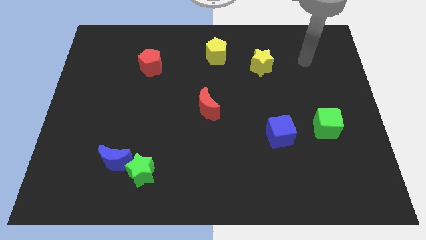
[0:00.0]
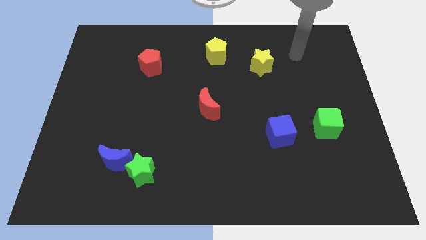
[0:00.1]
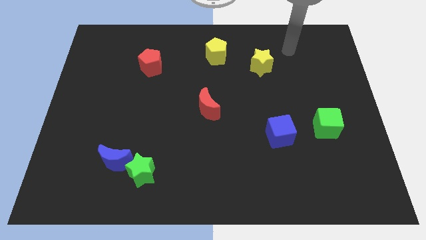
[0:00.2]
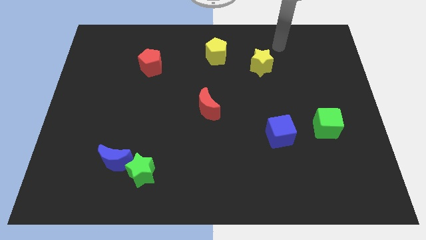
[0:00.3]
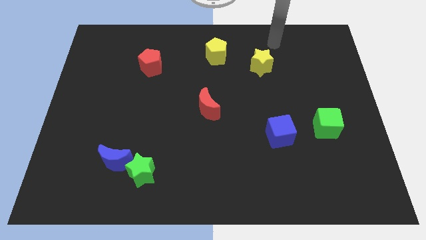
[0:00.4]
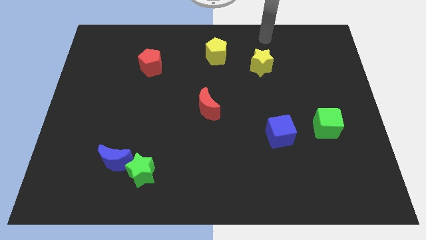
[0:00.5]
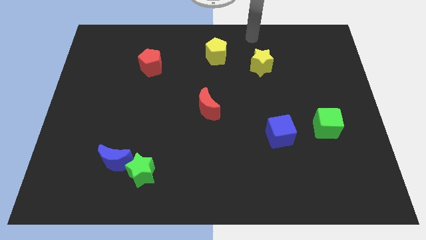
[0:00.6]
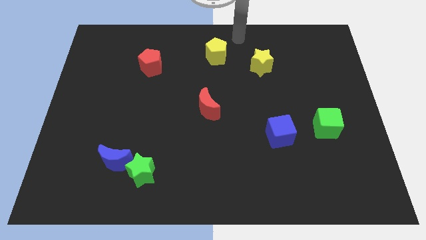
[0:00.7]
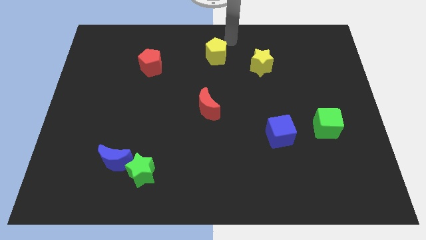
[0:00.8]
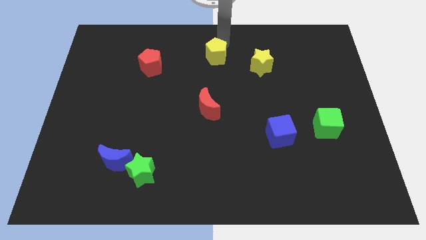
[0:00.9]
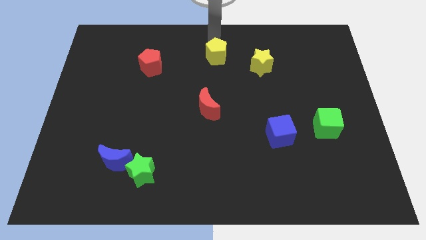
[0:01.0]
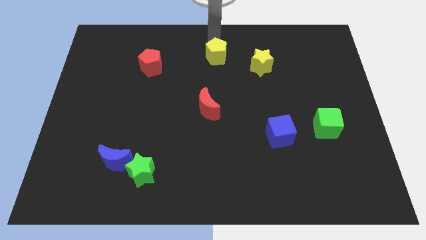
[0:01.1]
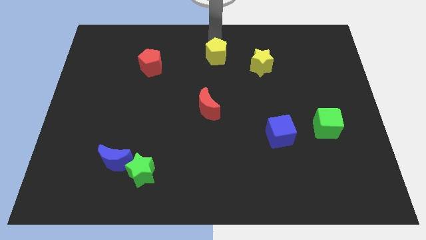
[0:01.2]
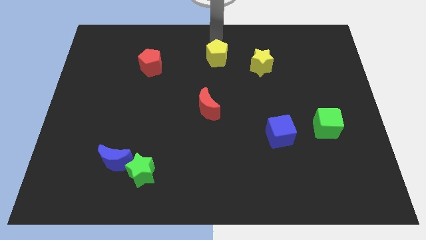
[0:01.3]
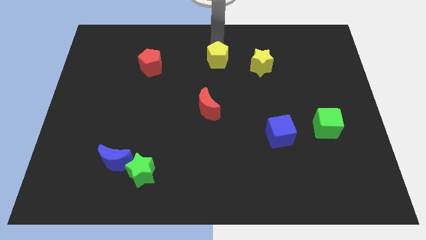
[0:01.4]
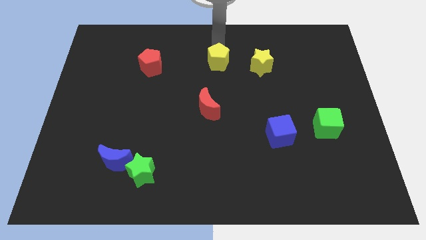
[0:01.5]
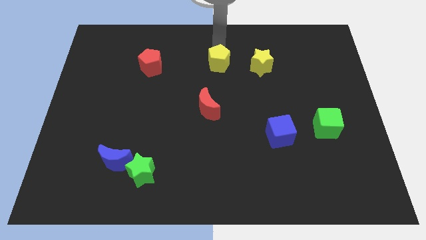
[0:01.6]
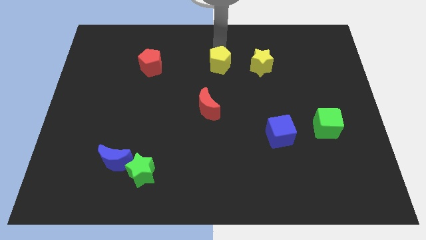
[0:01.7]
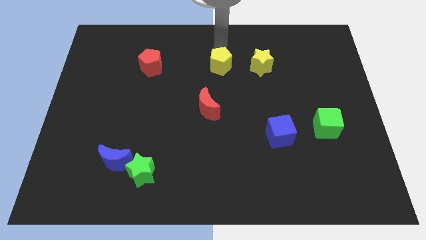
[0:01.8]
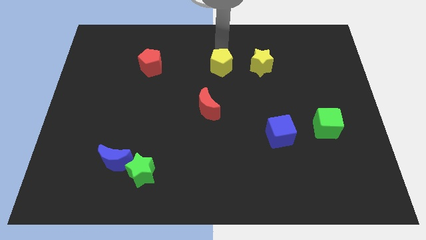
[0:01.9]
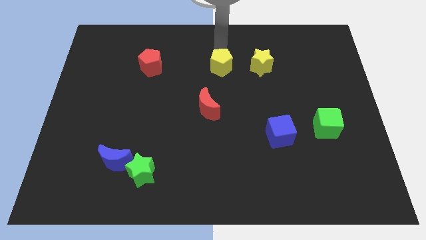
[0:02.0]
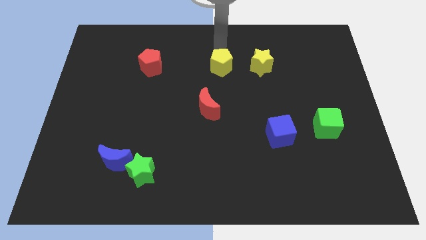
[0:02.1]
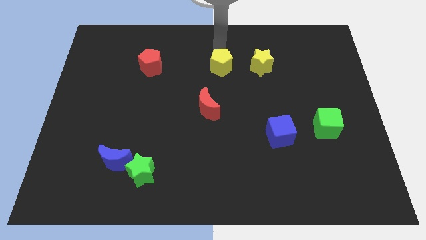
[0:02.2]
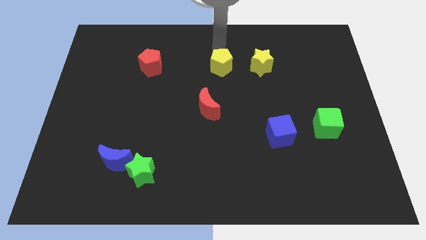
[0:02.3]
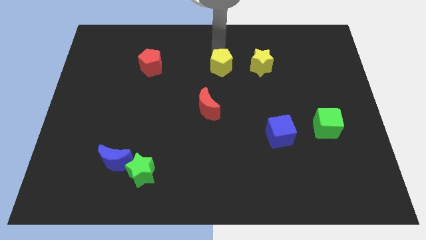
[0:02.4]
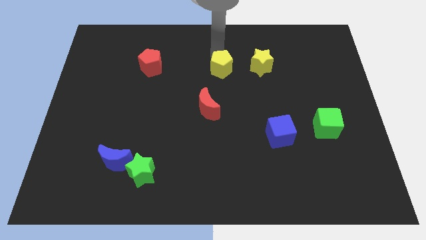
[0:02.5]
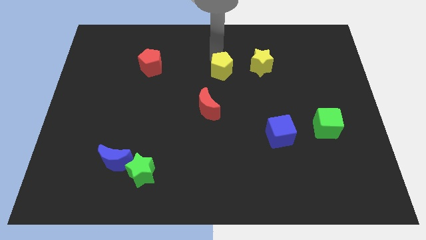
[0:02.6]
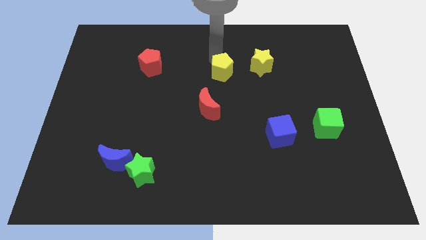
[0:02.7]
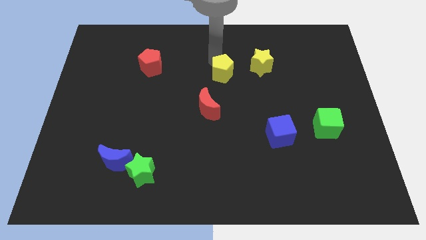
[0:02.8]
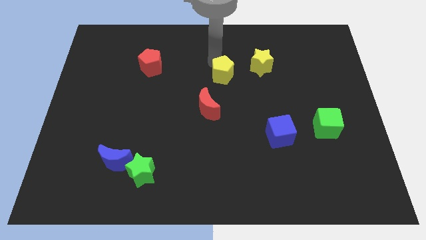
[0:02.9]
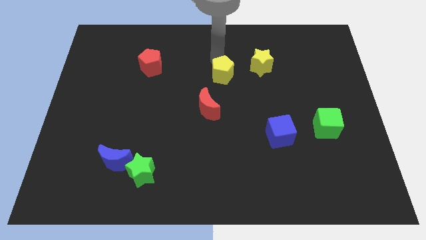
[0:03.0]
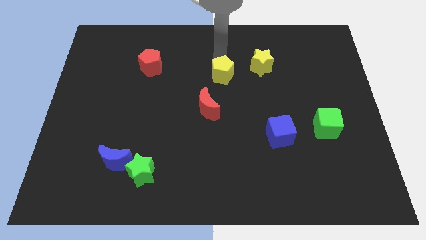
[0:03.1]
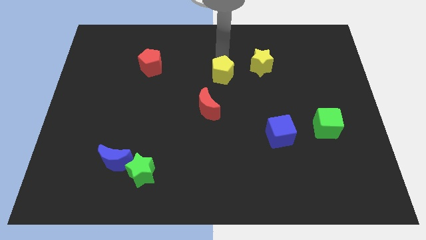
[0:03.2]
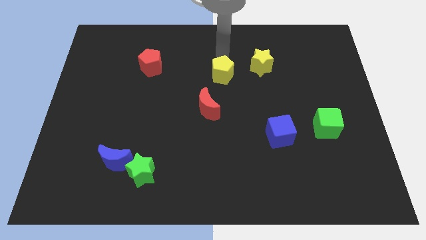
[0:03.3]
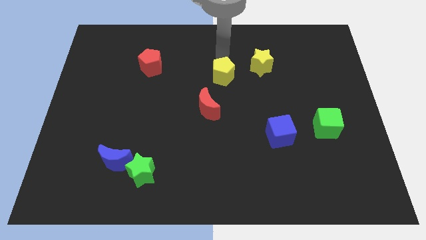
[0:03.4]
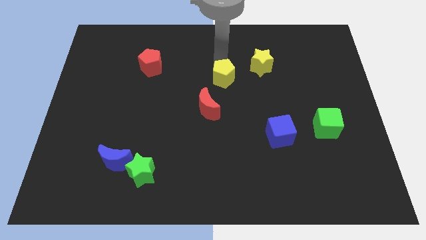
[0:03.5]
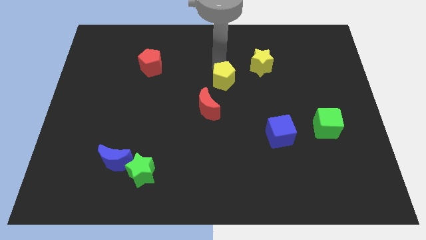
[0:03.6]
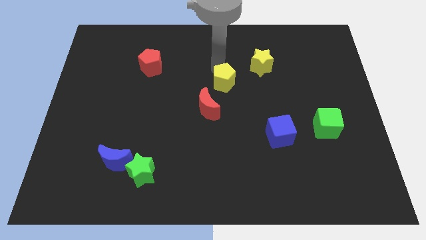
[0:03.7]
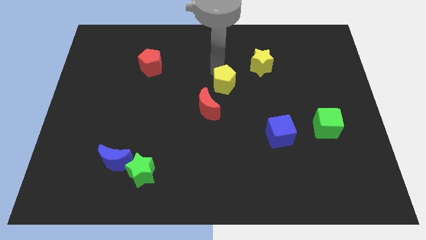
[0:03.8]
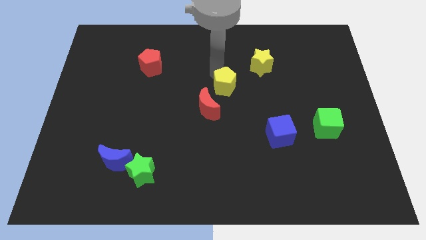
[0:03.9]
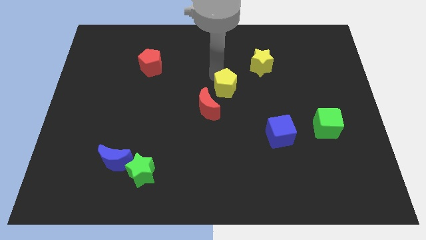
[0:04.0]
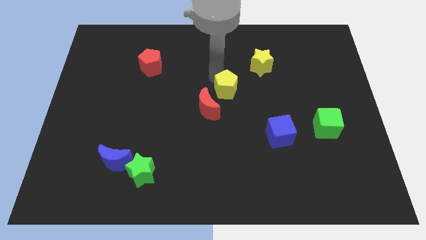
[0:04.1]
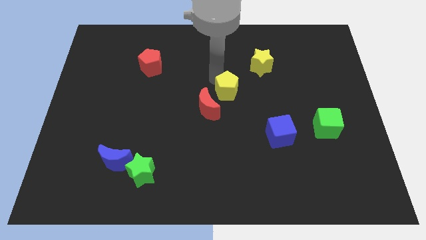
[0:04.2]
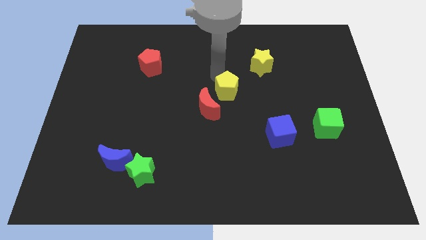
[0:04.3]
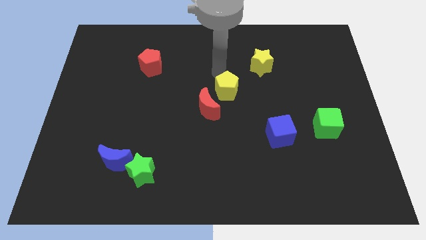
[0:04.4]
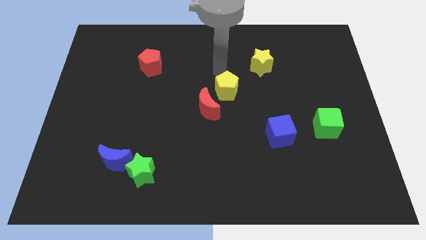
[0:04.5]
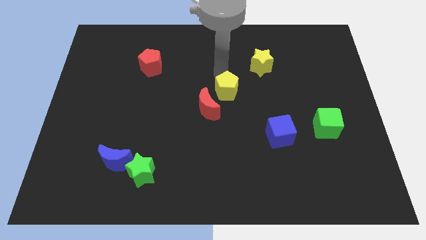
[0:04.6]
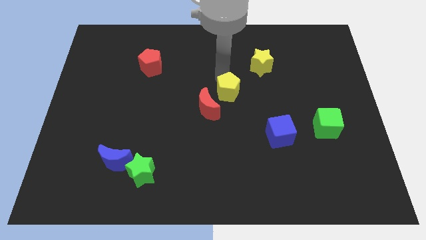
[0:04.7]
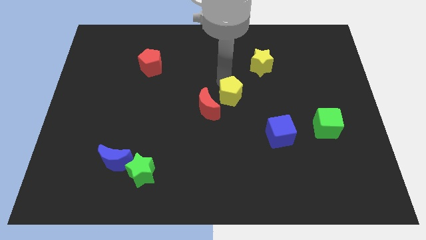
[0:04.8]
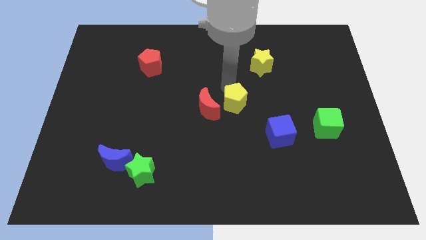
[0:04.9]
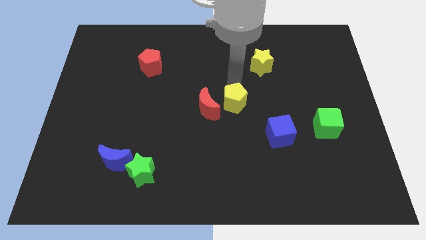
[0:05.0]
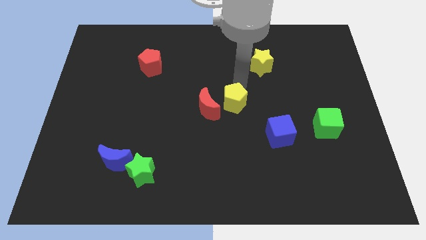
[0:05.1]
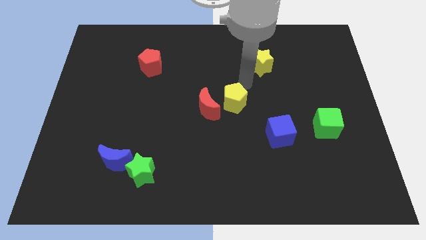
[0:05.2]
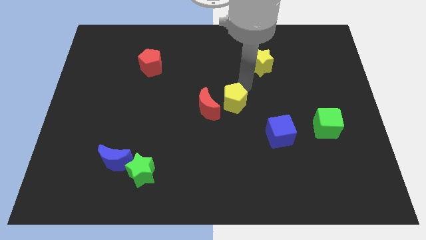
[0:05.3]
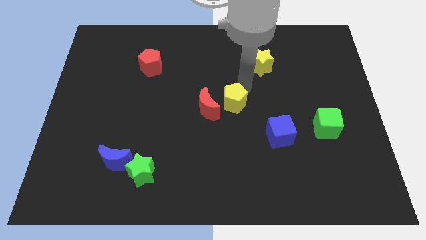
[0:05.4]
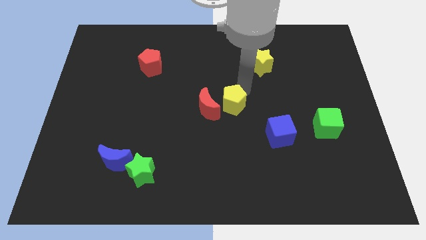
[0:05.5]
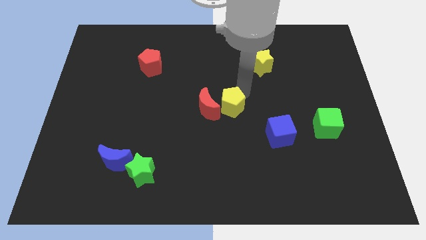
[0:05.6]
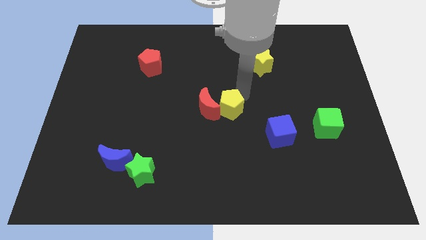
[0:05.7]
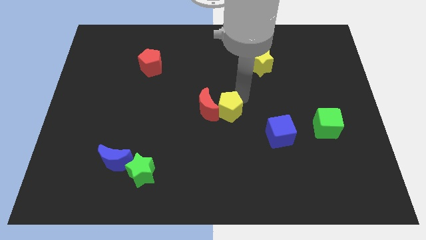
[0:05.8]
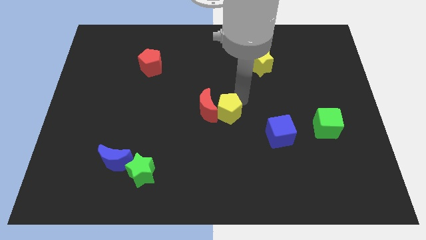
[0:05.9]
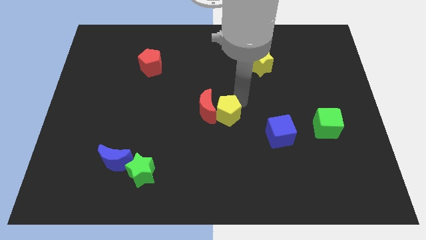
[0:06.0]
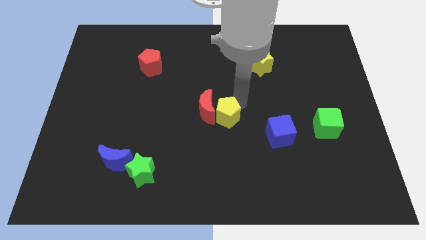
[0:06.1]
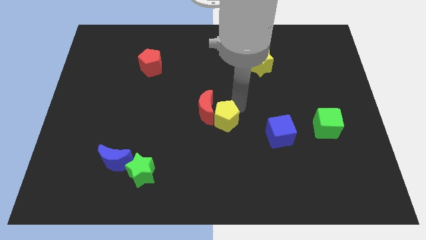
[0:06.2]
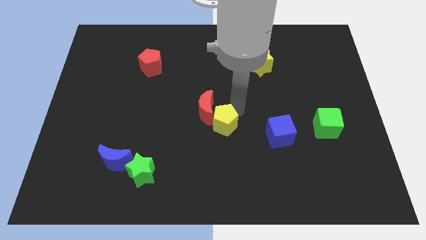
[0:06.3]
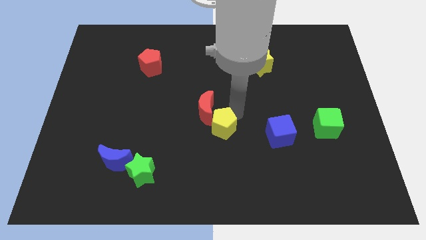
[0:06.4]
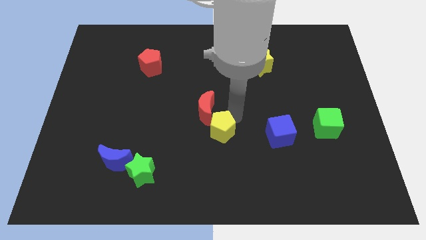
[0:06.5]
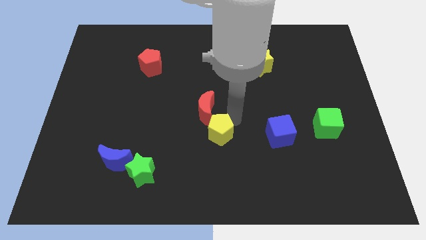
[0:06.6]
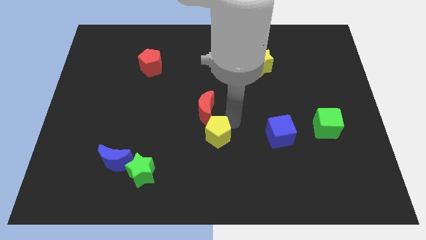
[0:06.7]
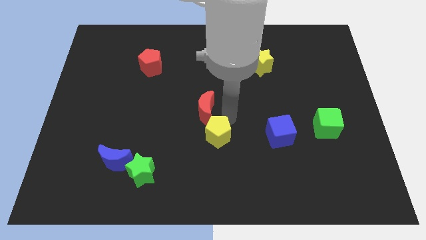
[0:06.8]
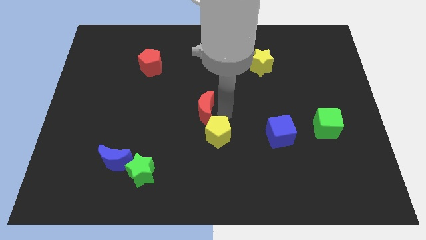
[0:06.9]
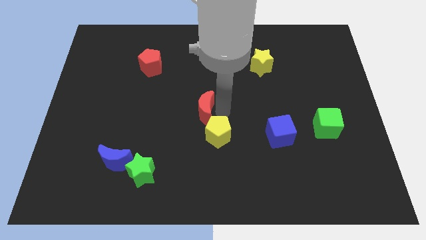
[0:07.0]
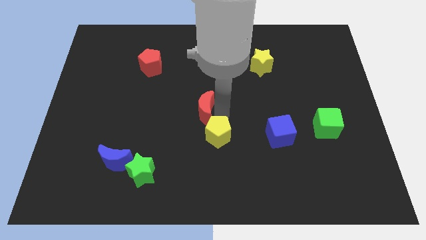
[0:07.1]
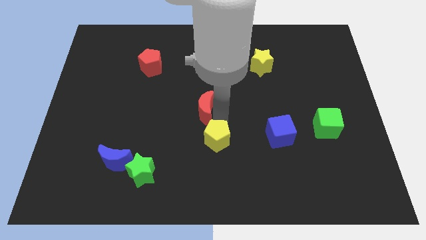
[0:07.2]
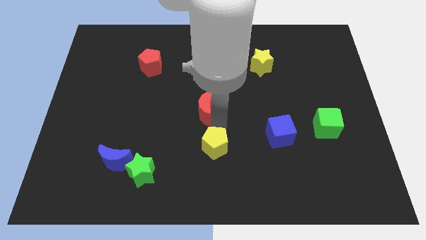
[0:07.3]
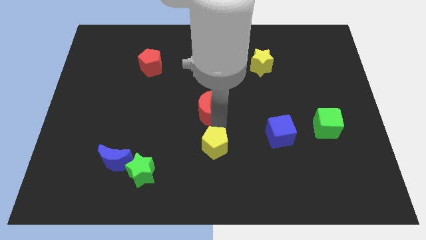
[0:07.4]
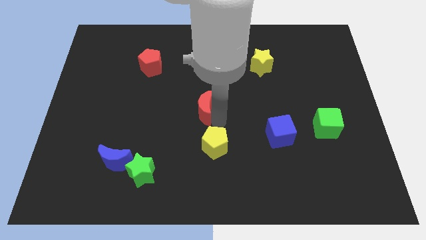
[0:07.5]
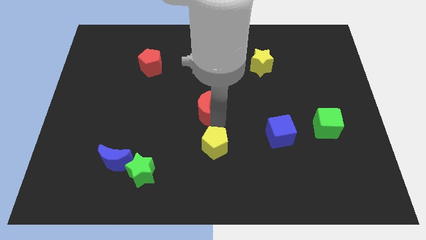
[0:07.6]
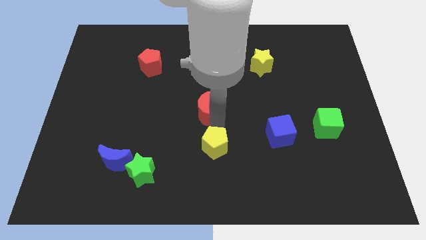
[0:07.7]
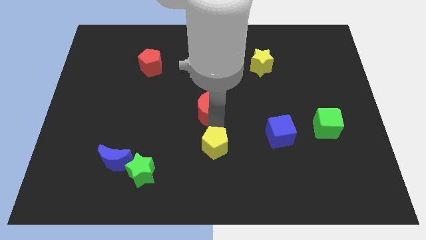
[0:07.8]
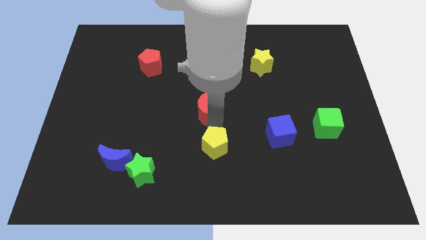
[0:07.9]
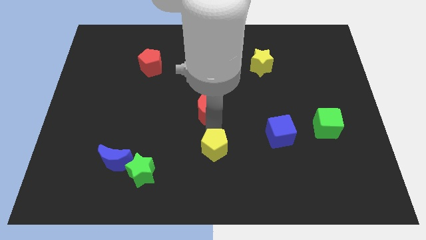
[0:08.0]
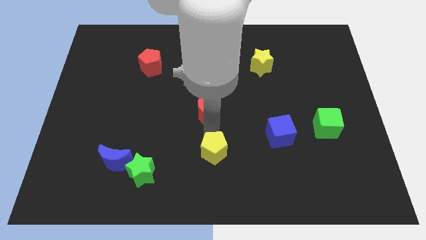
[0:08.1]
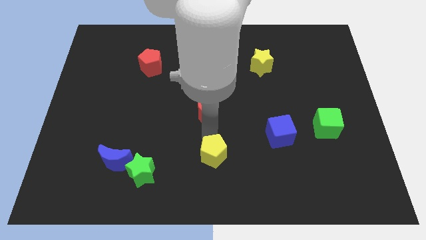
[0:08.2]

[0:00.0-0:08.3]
push the yellow pentagon to the bottom side
